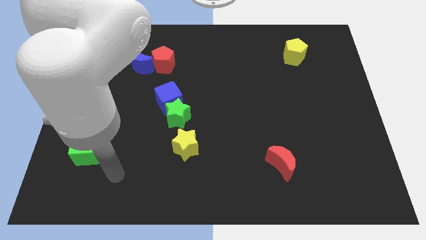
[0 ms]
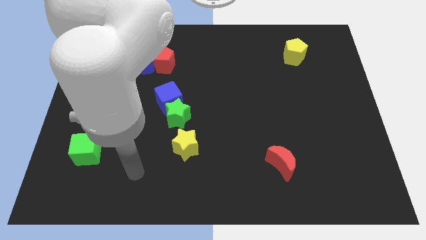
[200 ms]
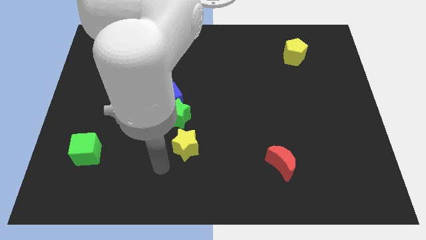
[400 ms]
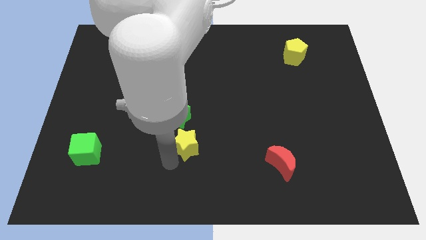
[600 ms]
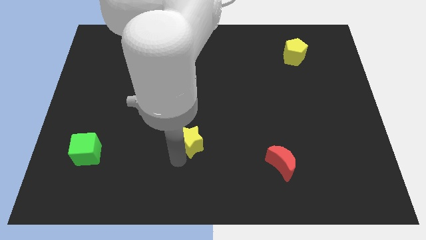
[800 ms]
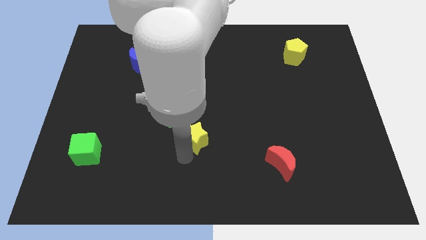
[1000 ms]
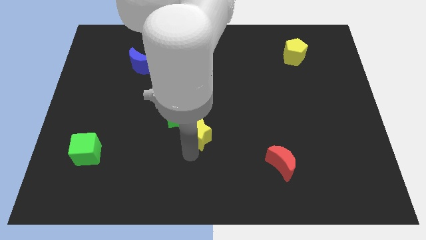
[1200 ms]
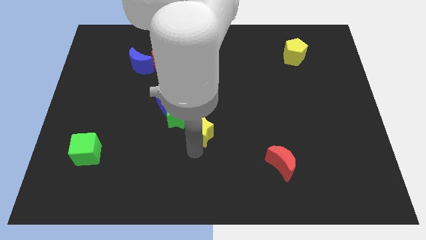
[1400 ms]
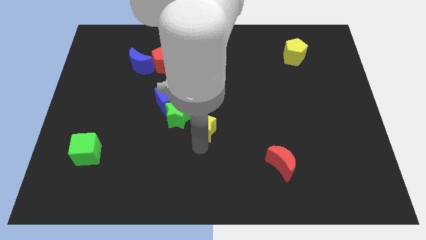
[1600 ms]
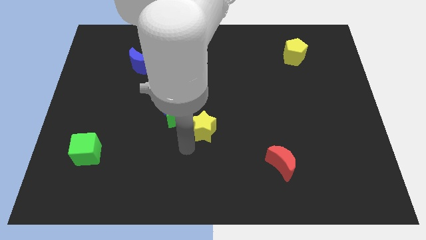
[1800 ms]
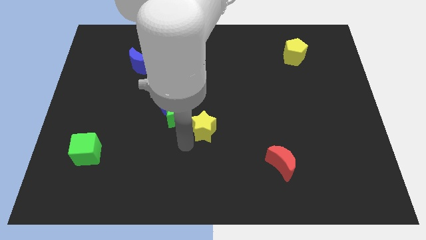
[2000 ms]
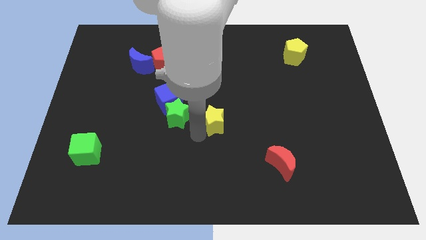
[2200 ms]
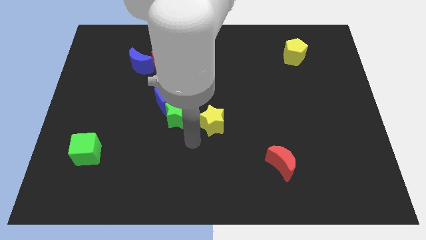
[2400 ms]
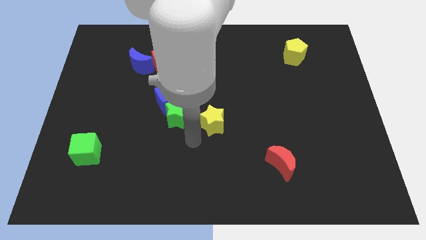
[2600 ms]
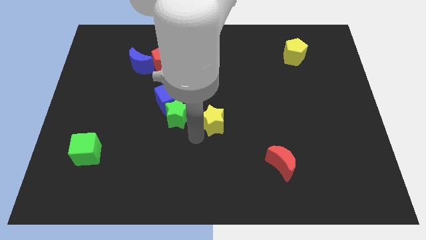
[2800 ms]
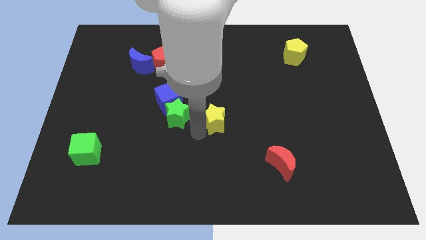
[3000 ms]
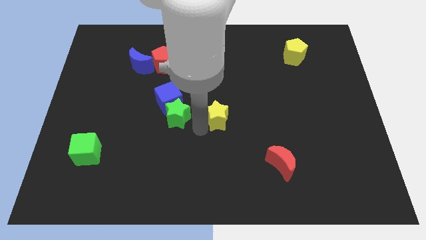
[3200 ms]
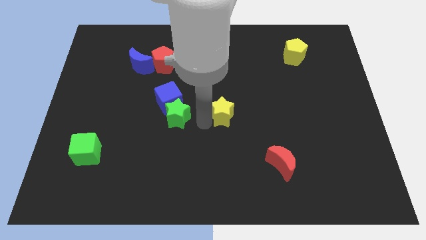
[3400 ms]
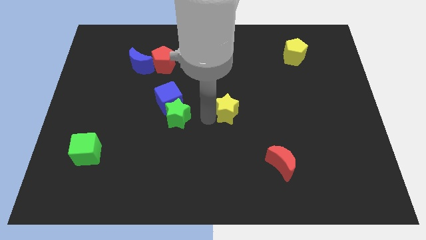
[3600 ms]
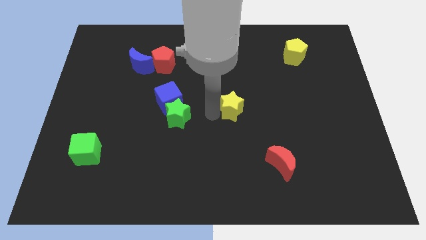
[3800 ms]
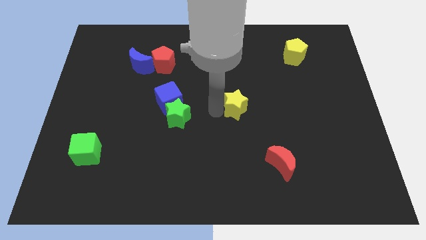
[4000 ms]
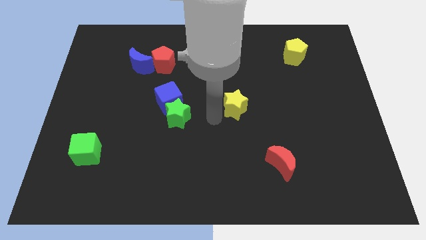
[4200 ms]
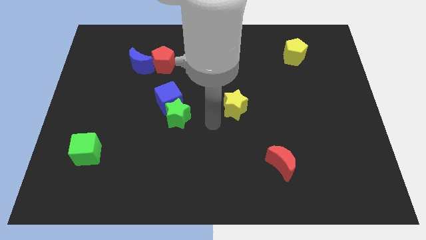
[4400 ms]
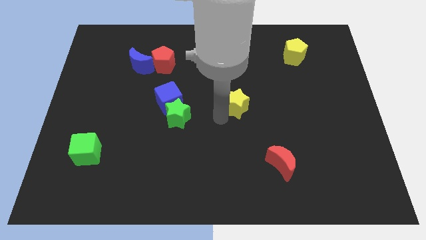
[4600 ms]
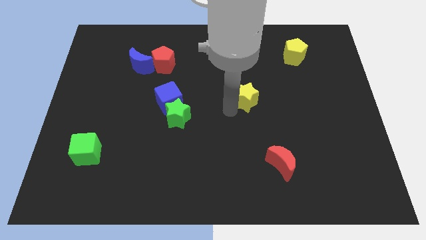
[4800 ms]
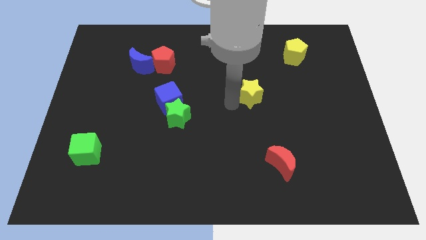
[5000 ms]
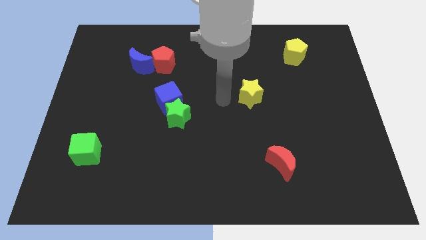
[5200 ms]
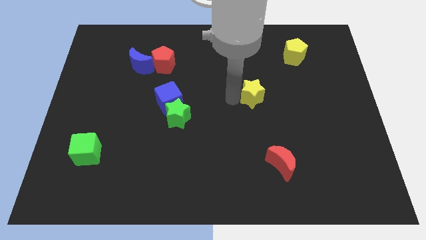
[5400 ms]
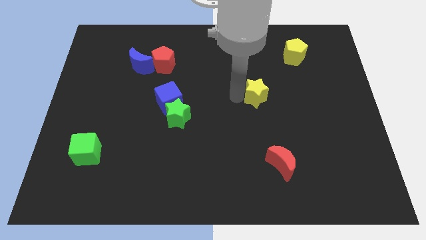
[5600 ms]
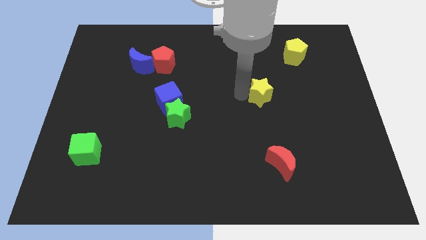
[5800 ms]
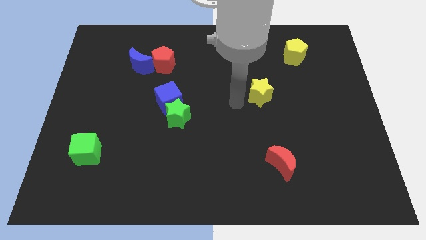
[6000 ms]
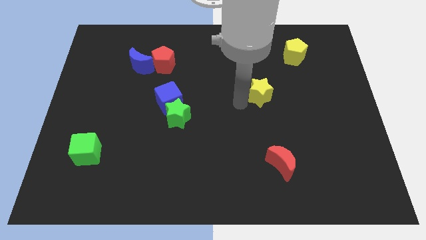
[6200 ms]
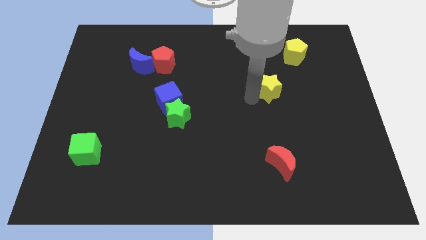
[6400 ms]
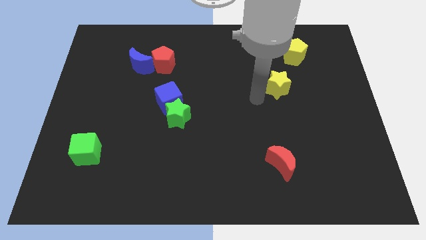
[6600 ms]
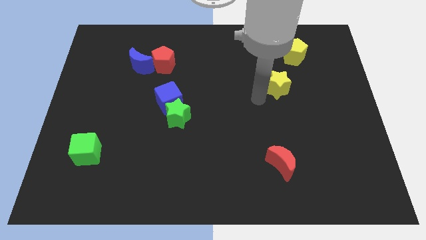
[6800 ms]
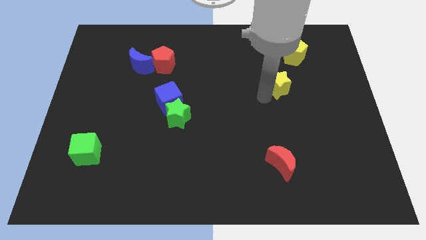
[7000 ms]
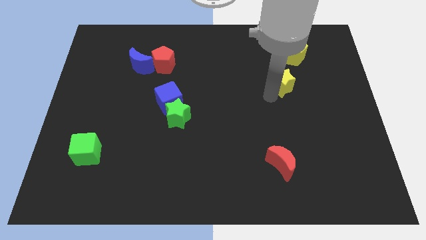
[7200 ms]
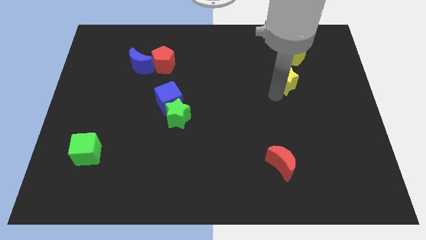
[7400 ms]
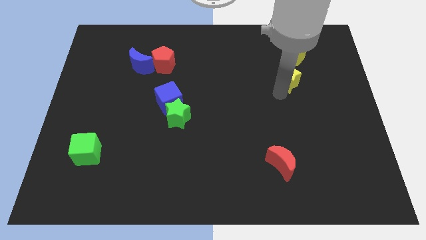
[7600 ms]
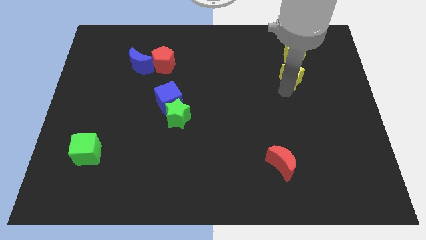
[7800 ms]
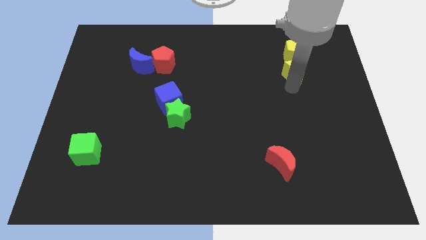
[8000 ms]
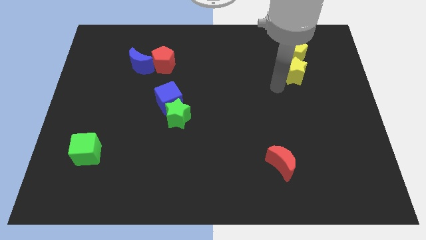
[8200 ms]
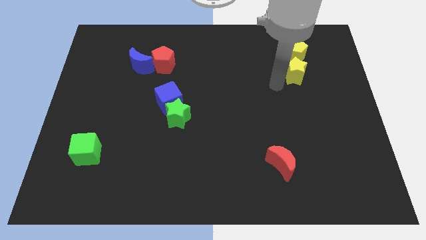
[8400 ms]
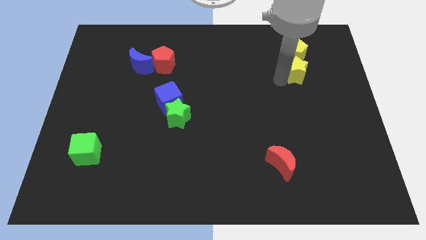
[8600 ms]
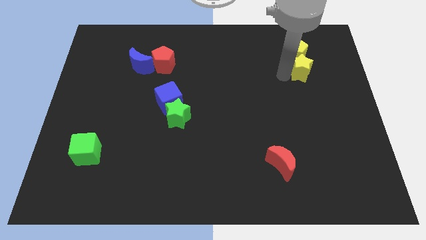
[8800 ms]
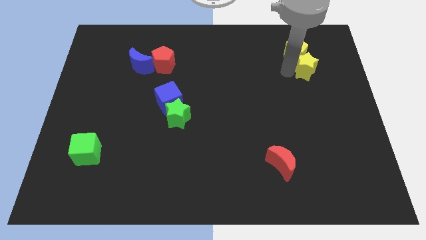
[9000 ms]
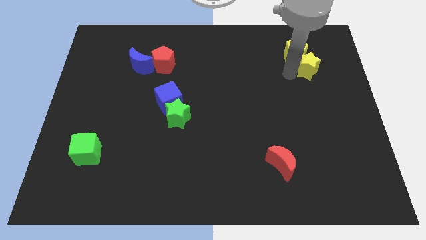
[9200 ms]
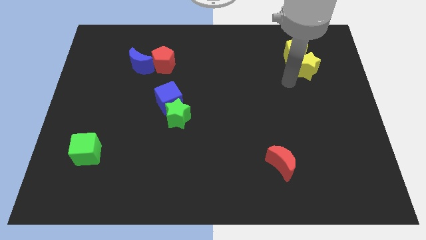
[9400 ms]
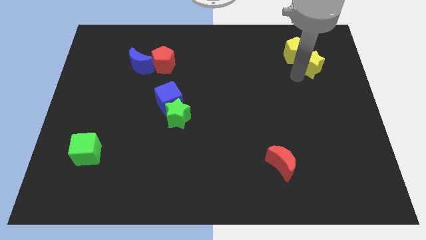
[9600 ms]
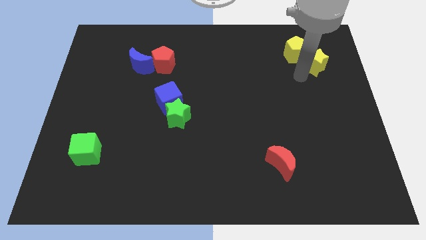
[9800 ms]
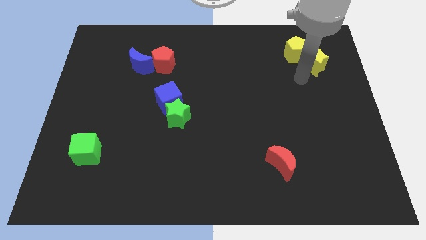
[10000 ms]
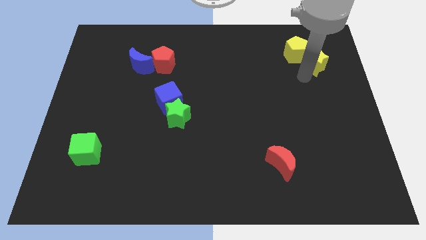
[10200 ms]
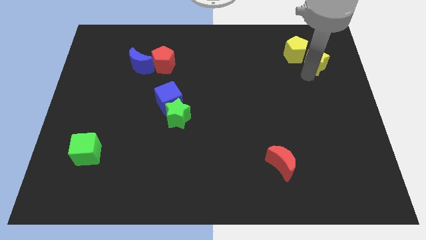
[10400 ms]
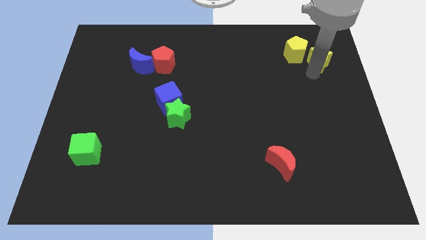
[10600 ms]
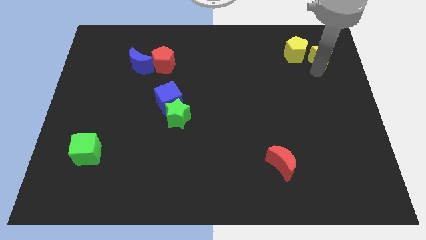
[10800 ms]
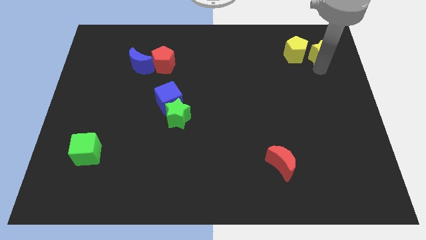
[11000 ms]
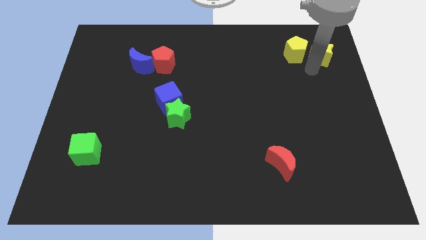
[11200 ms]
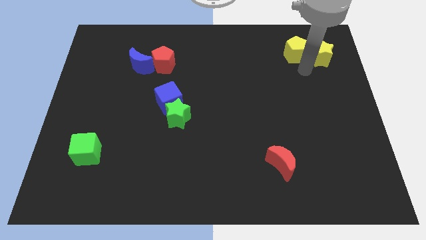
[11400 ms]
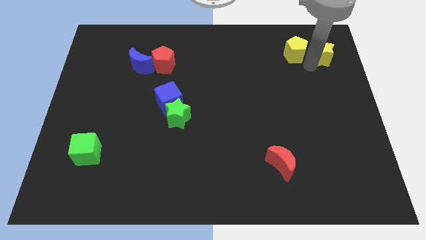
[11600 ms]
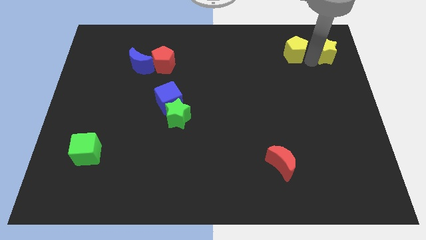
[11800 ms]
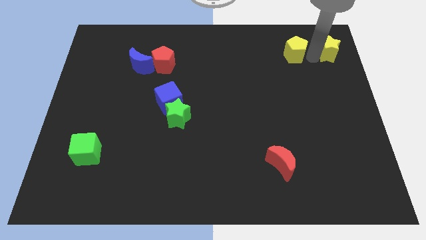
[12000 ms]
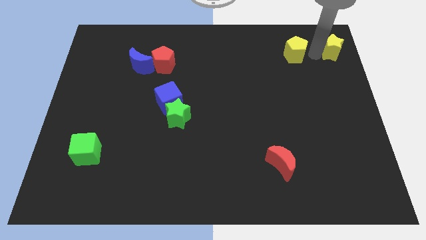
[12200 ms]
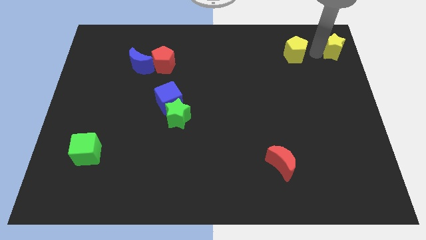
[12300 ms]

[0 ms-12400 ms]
put the yellow star to the top right of the board
